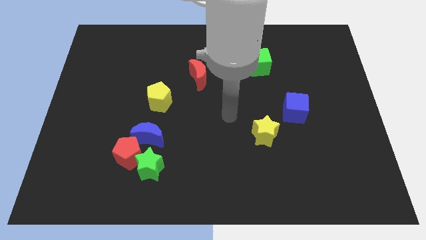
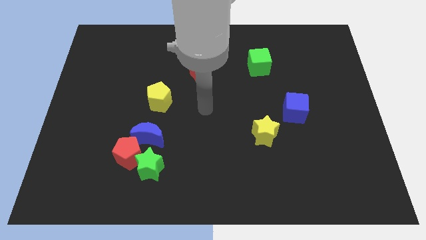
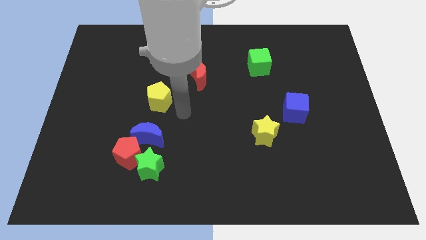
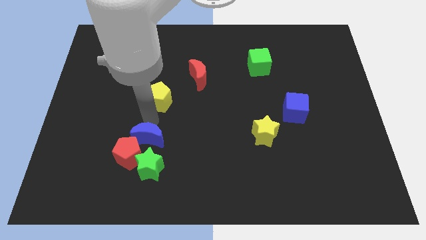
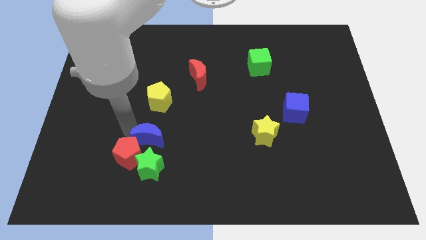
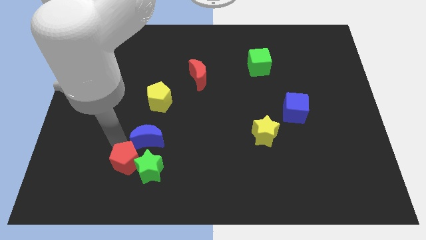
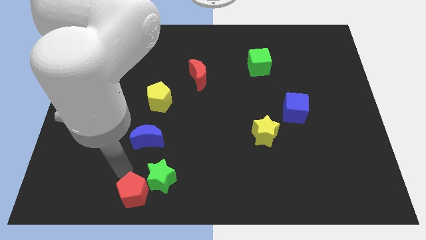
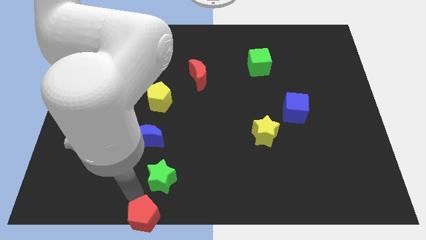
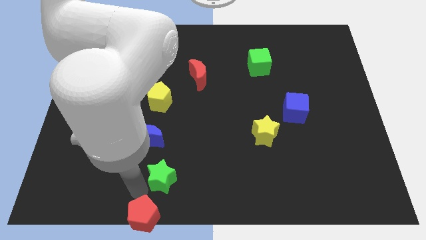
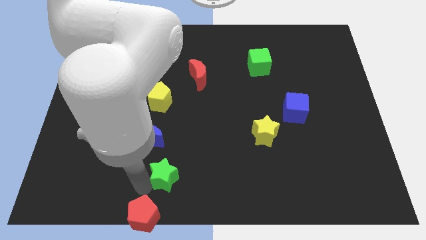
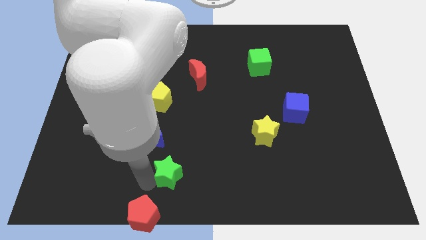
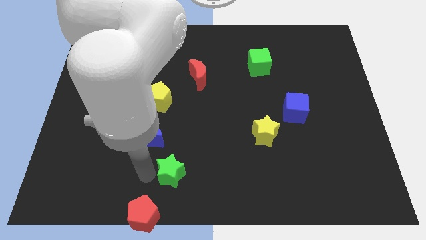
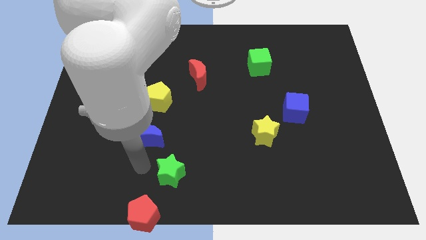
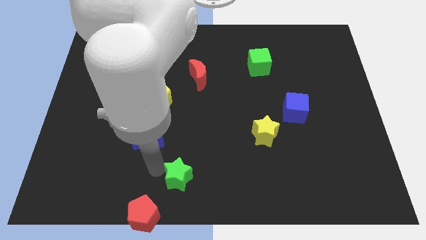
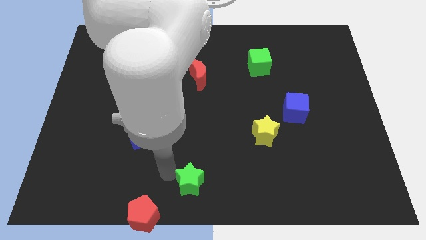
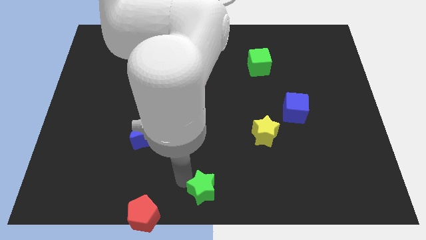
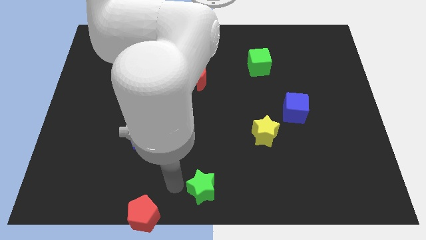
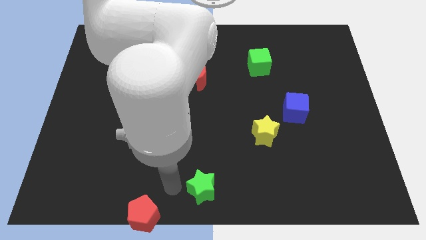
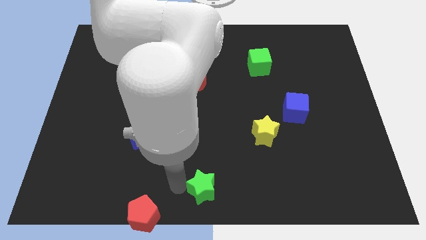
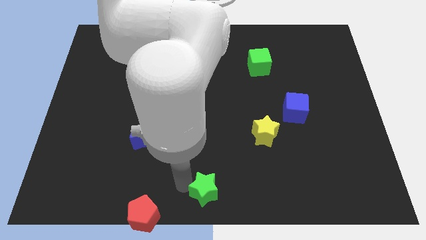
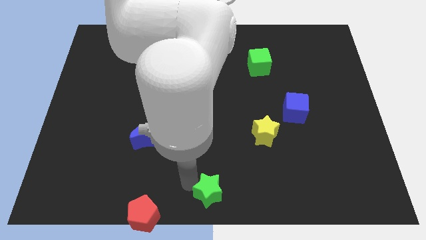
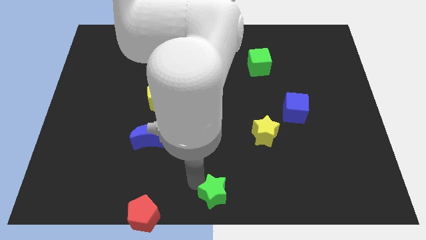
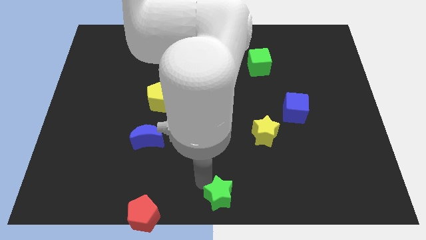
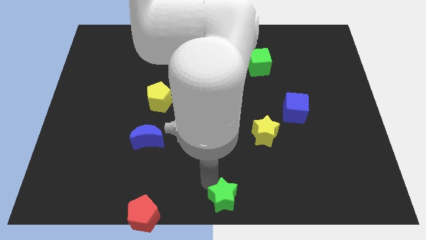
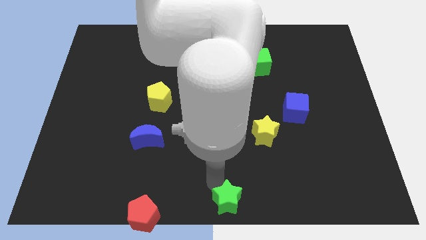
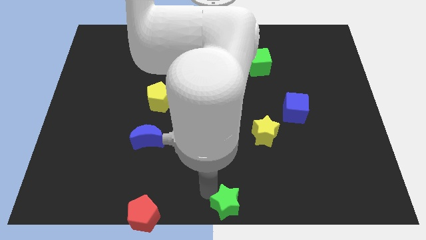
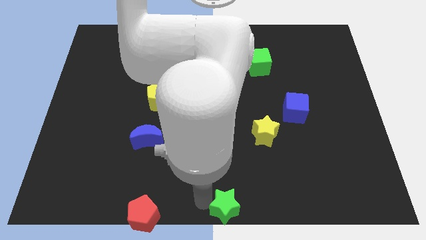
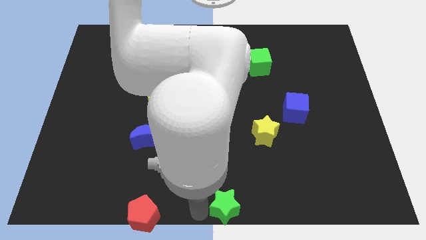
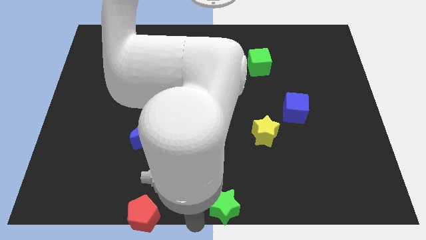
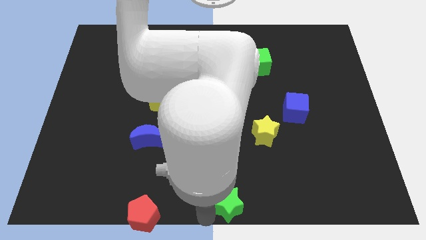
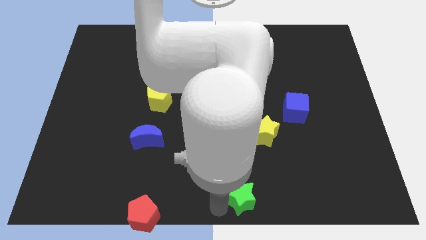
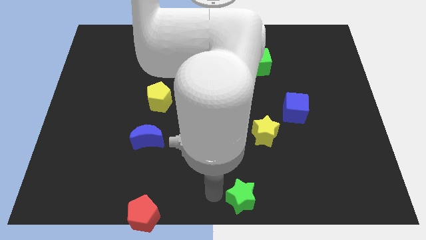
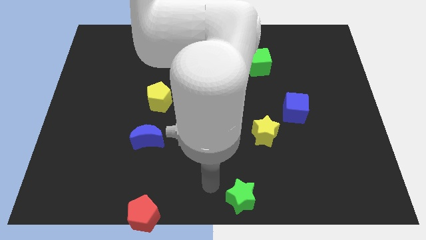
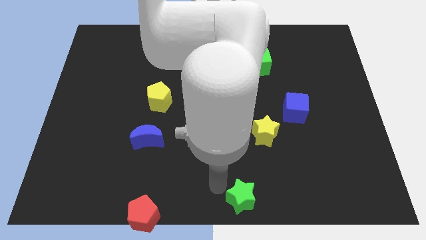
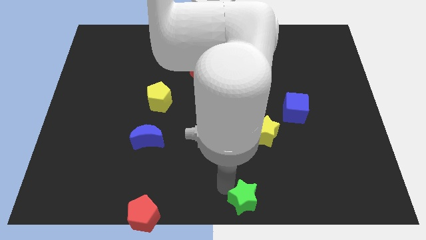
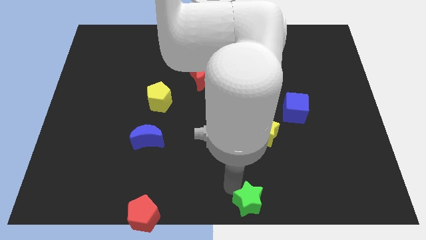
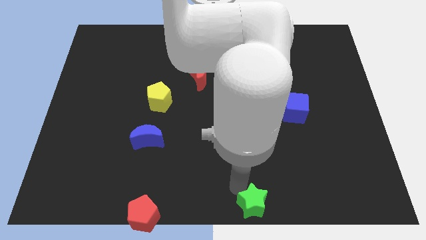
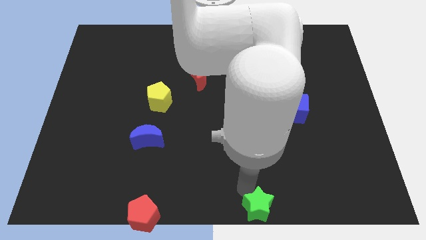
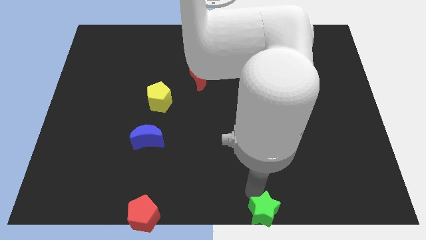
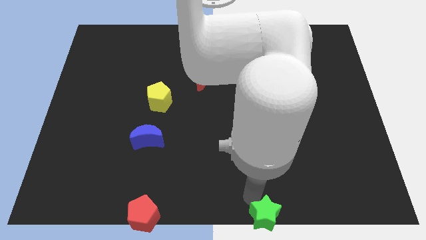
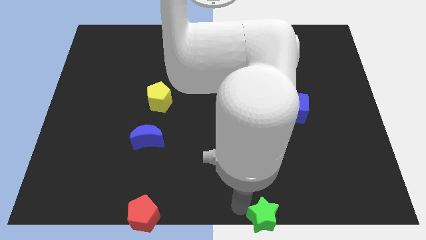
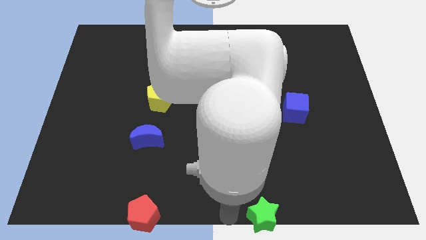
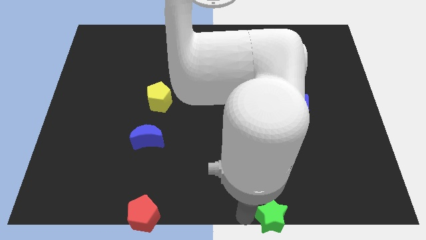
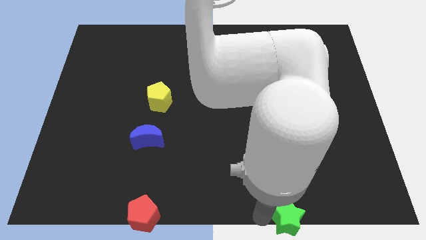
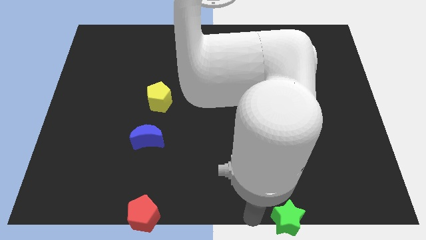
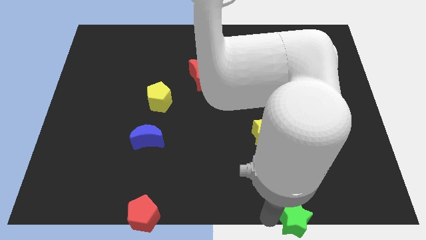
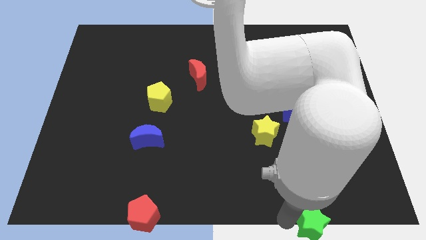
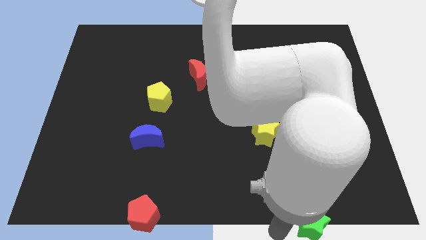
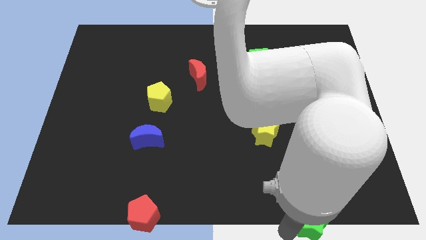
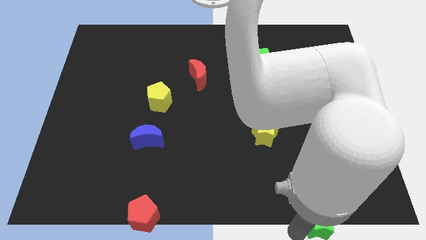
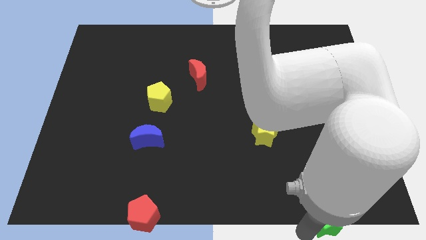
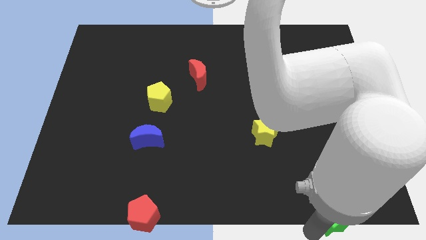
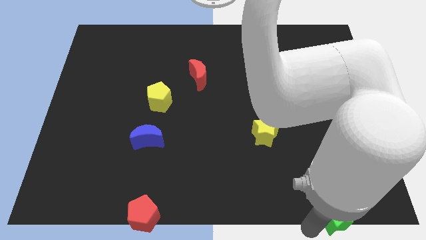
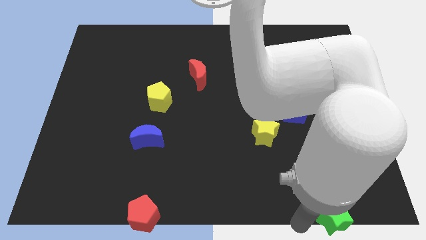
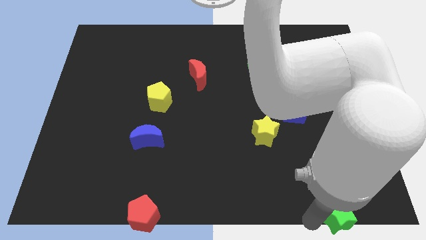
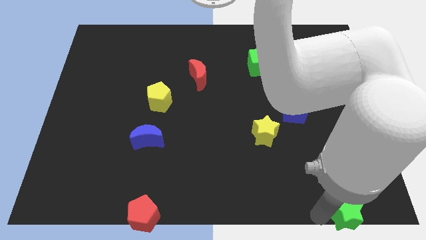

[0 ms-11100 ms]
put the green star to the lower right corner

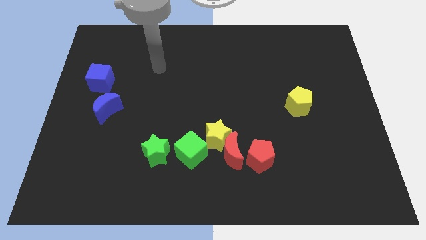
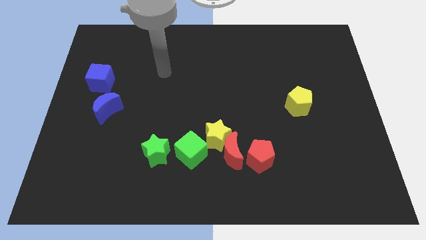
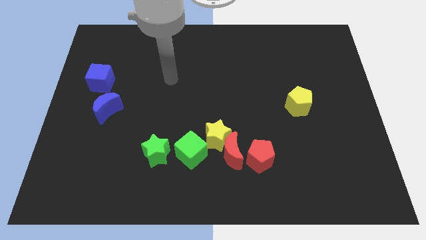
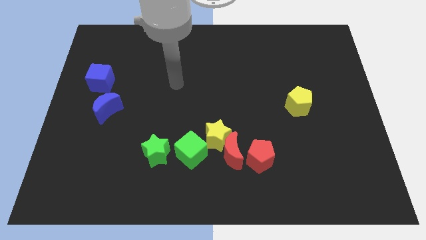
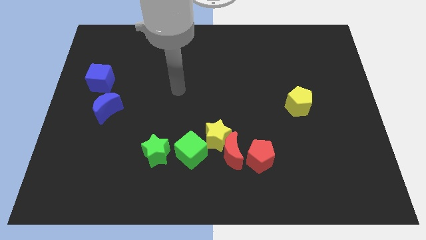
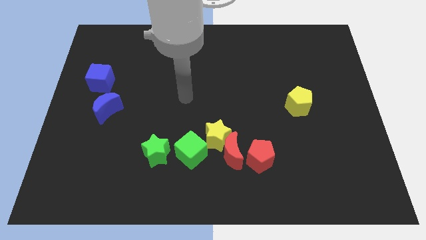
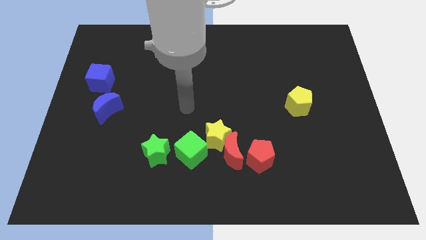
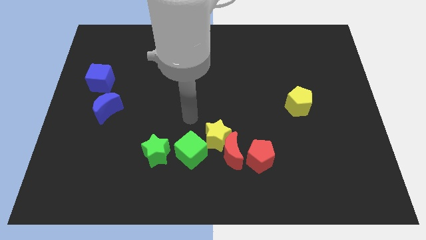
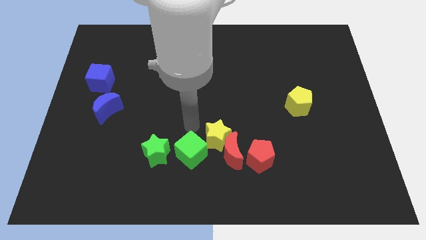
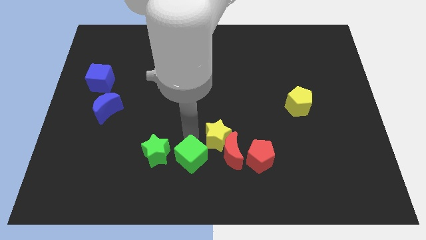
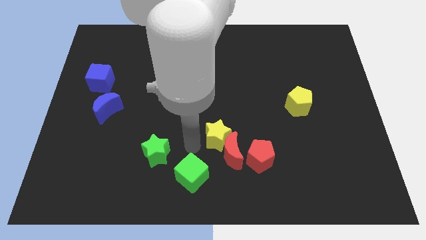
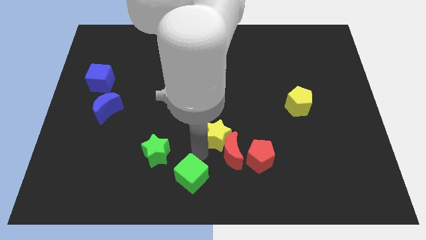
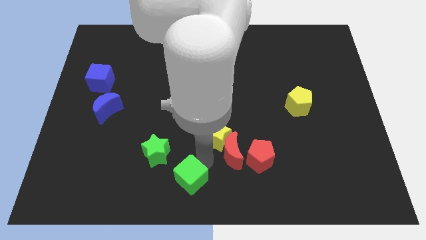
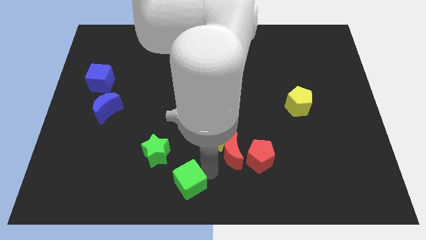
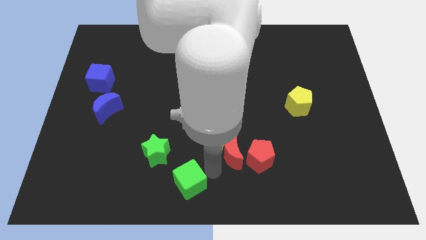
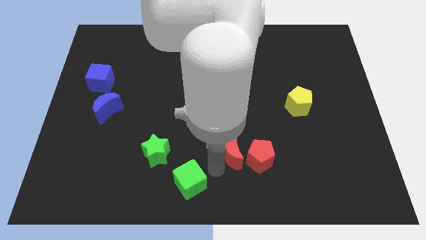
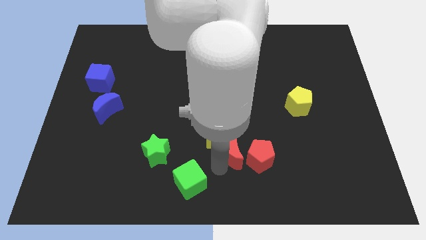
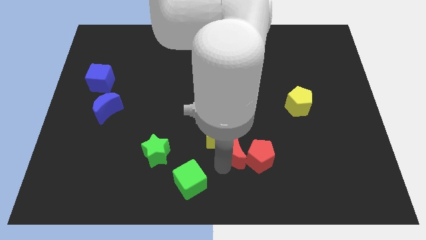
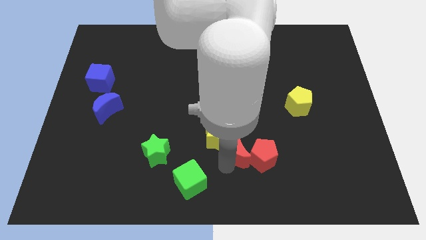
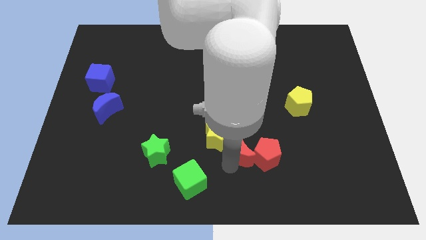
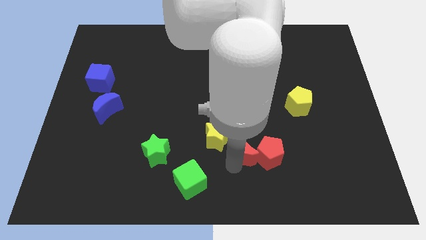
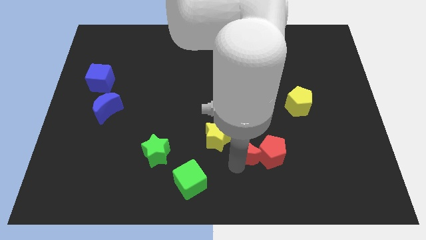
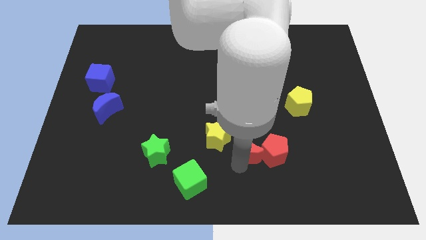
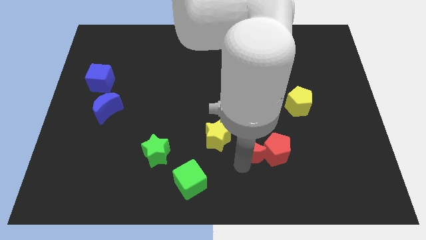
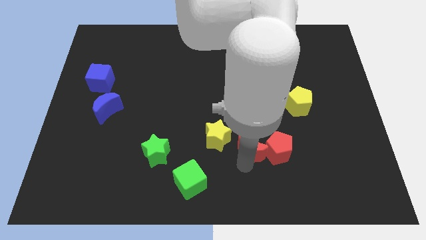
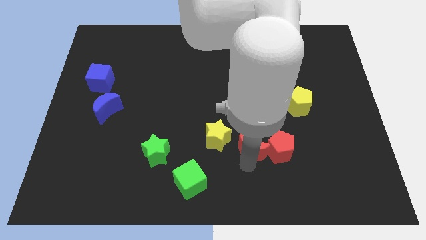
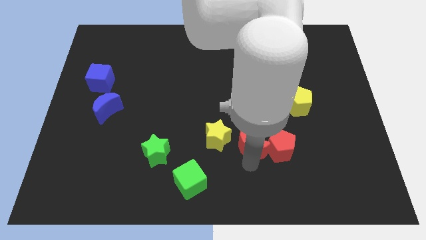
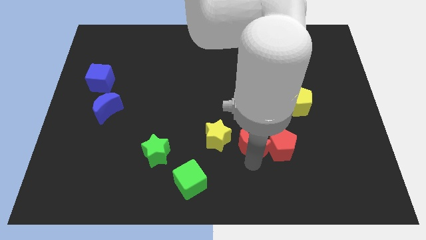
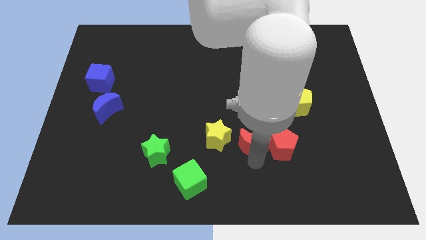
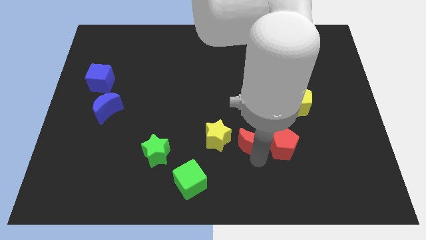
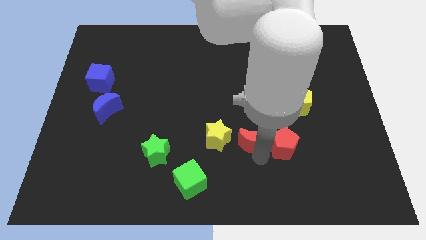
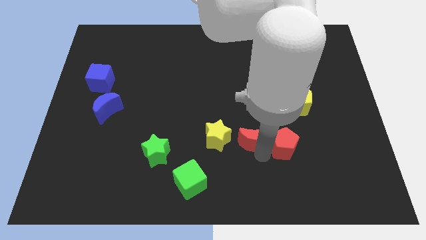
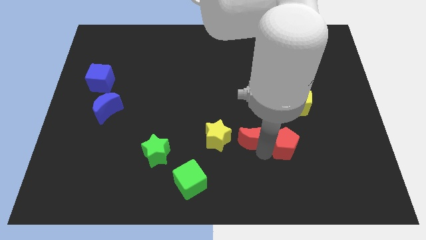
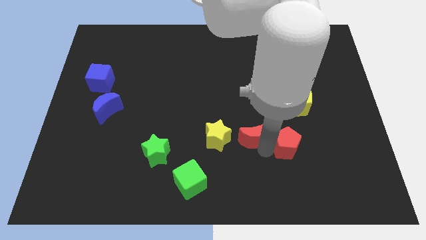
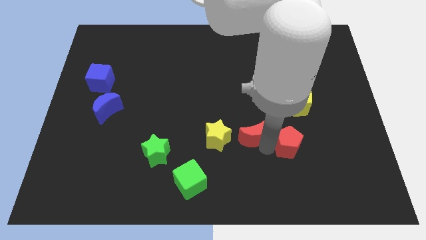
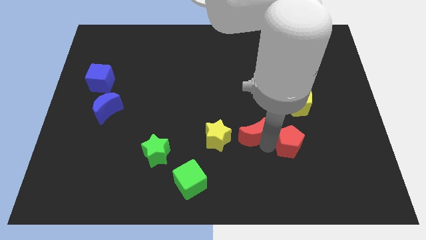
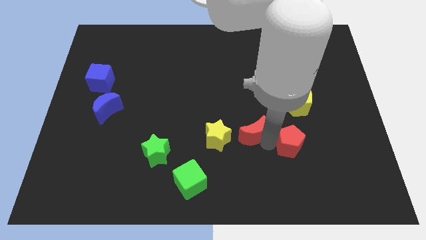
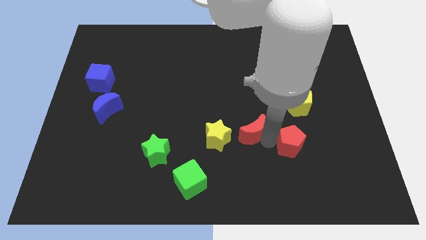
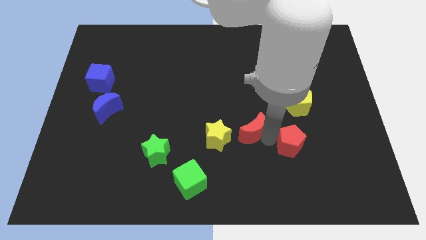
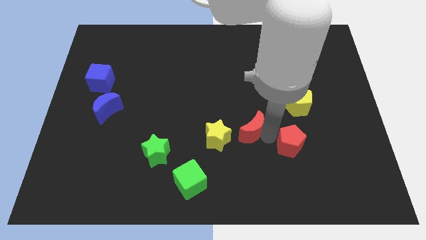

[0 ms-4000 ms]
move the red moon to the middle of the board
